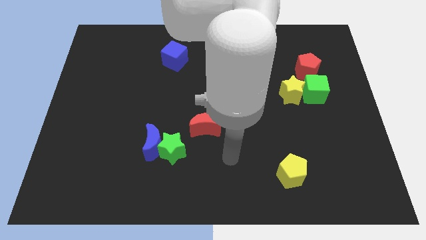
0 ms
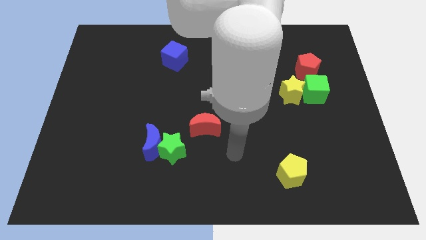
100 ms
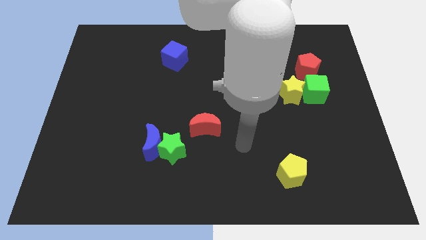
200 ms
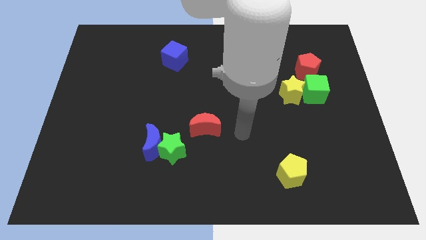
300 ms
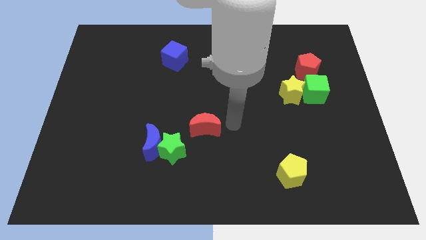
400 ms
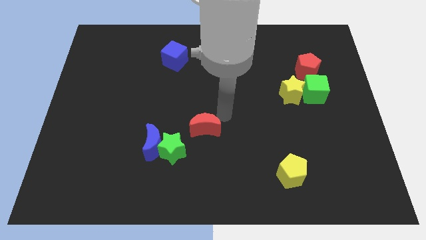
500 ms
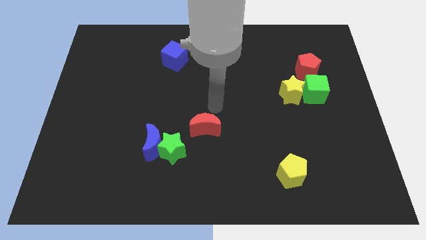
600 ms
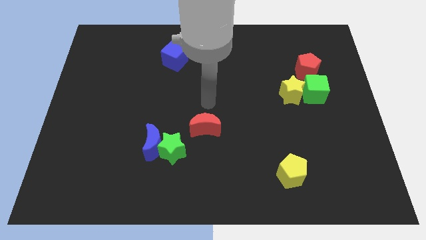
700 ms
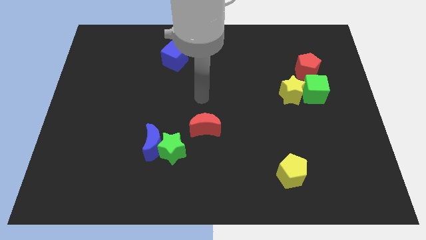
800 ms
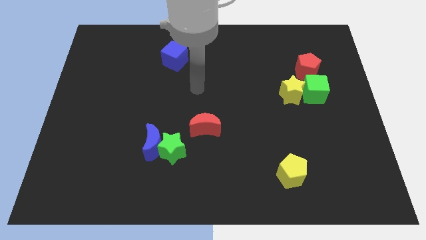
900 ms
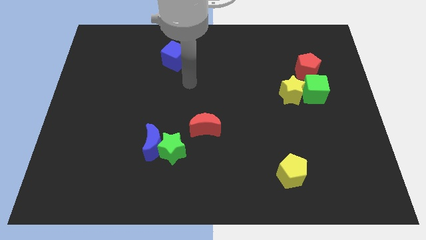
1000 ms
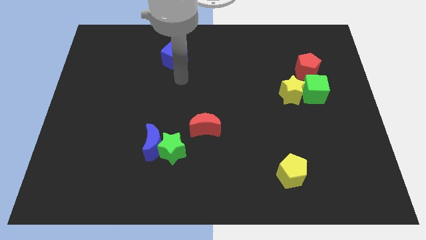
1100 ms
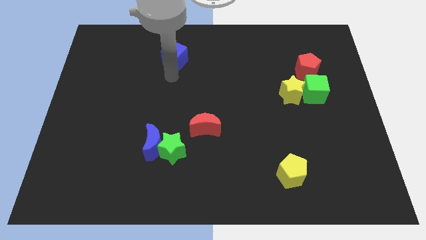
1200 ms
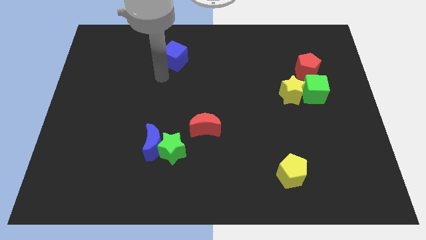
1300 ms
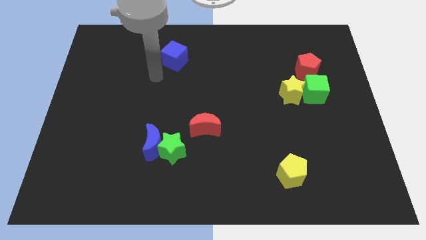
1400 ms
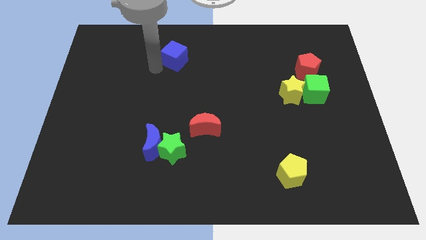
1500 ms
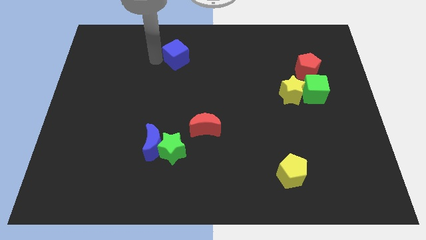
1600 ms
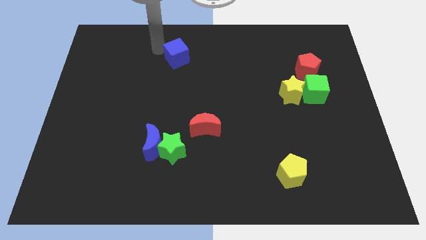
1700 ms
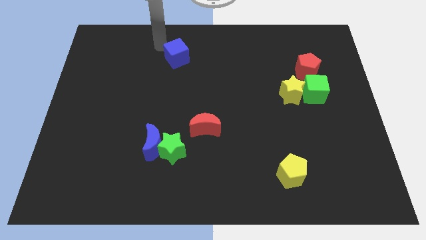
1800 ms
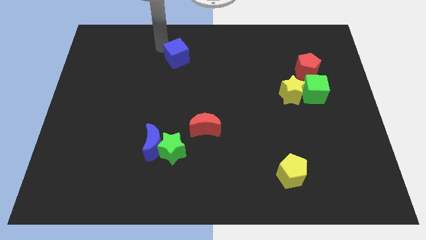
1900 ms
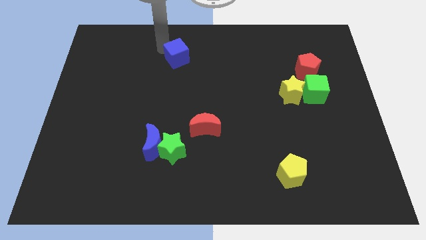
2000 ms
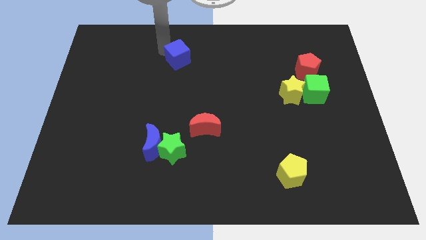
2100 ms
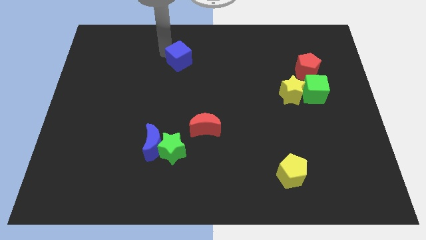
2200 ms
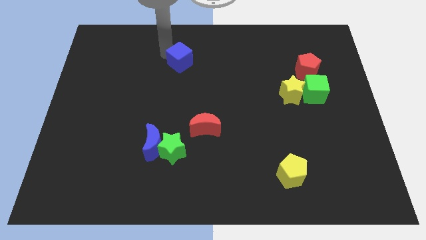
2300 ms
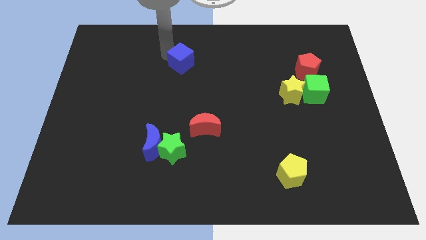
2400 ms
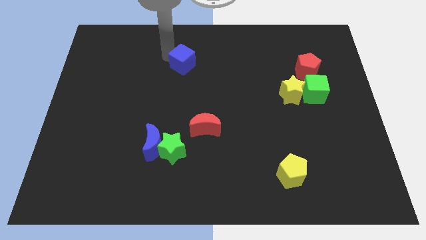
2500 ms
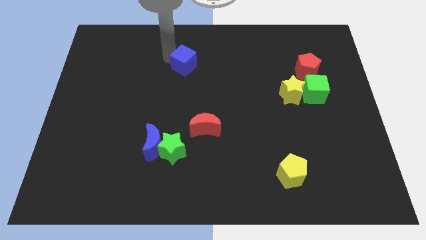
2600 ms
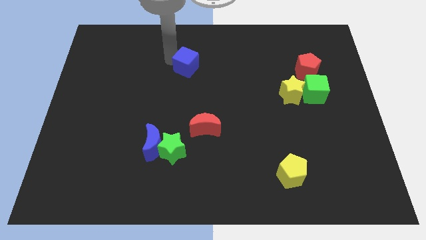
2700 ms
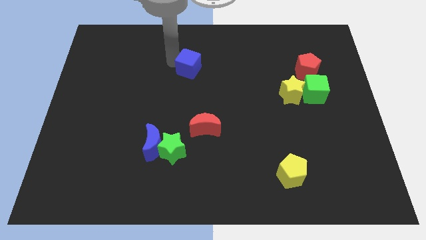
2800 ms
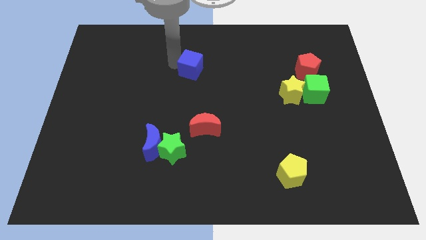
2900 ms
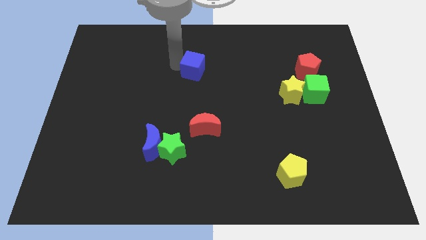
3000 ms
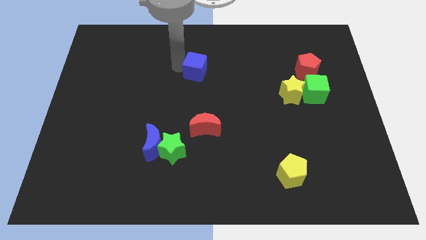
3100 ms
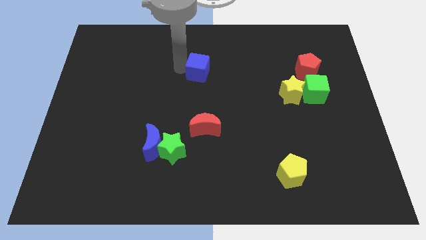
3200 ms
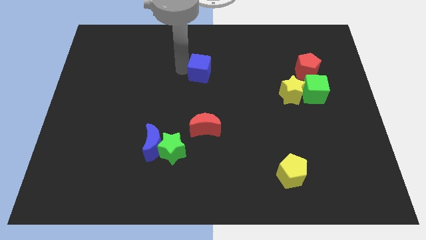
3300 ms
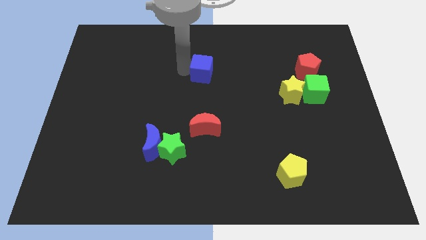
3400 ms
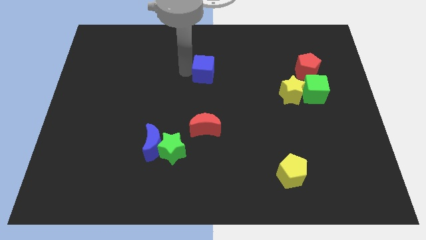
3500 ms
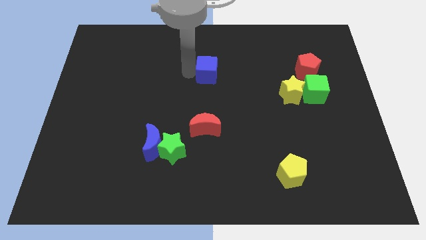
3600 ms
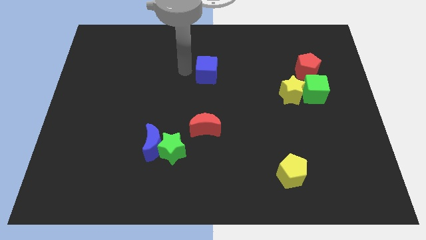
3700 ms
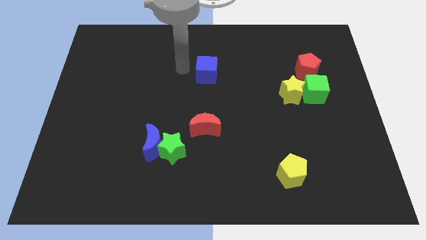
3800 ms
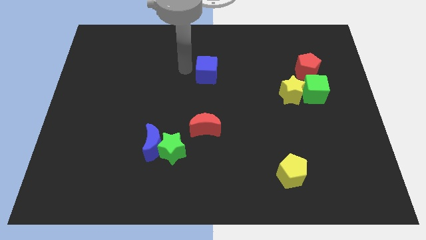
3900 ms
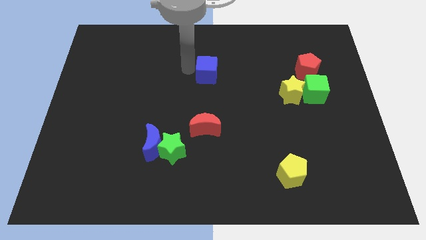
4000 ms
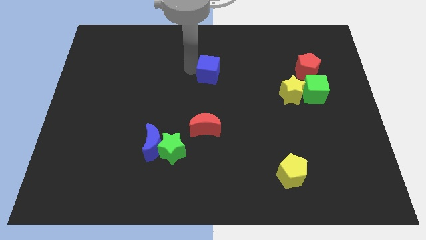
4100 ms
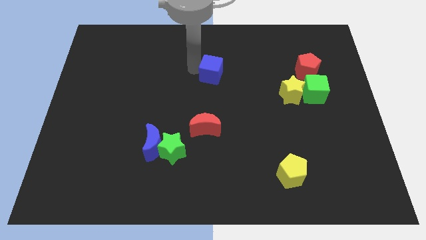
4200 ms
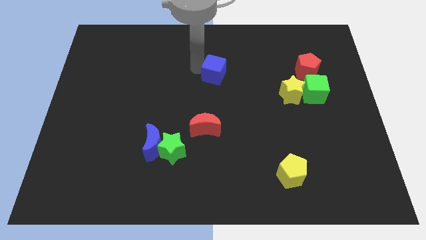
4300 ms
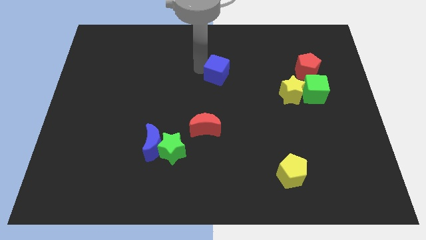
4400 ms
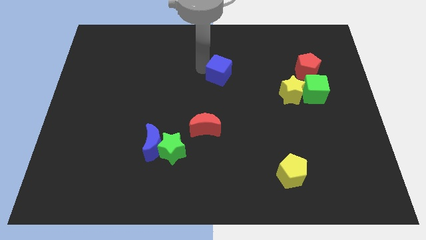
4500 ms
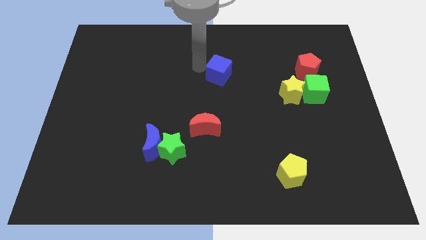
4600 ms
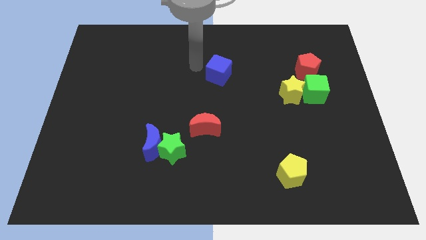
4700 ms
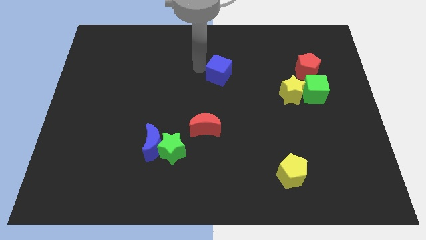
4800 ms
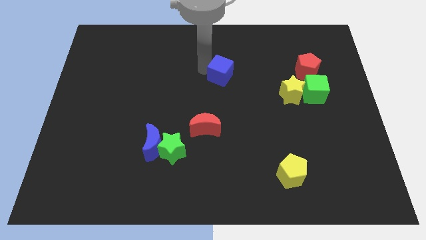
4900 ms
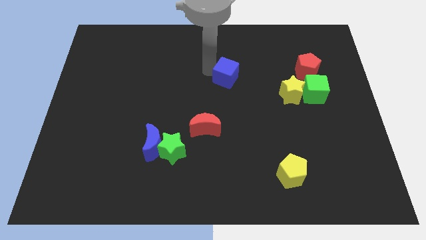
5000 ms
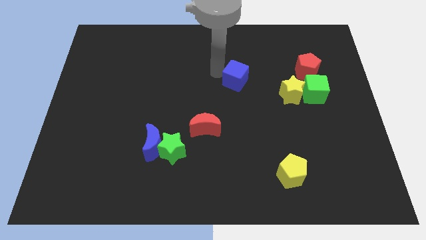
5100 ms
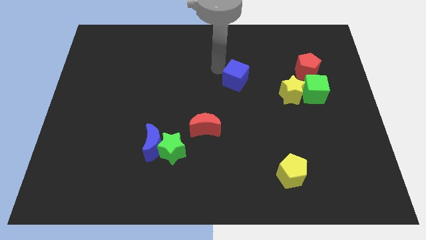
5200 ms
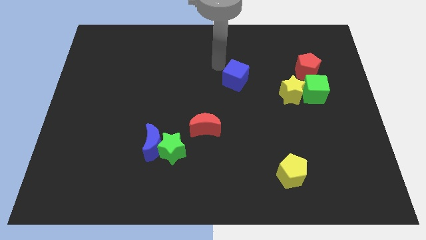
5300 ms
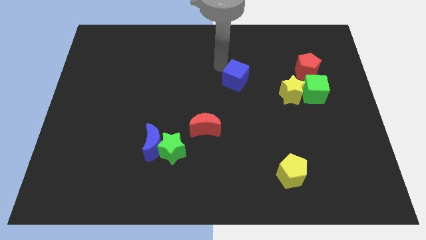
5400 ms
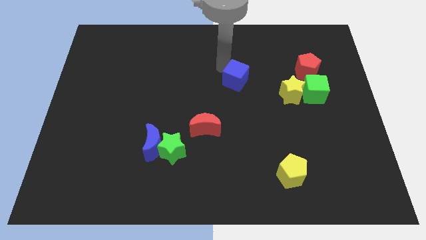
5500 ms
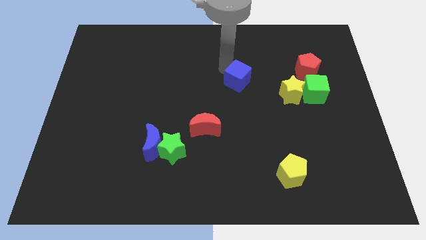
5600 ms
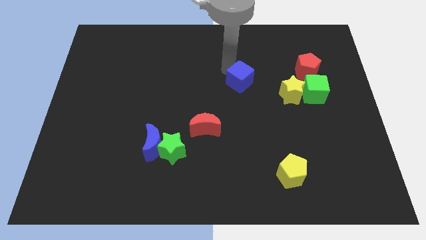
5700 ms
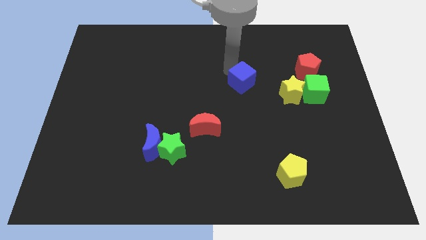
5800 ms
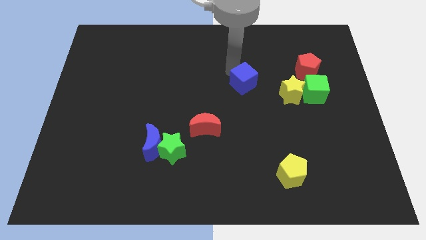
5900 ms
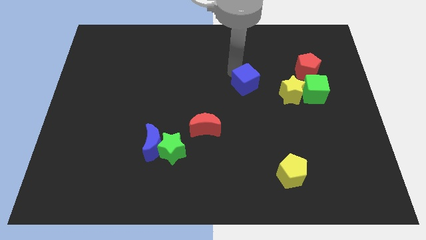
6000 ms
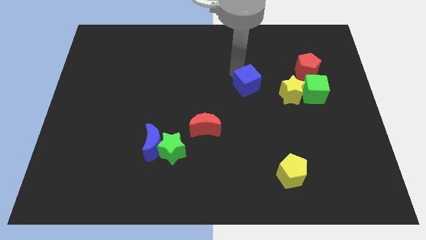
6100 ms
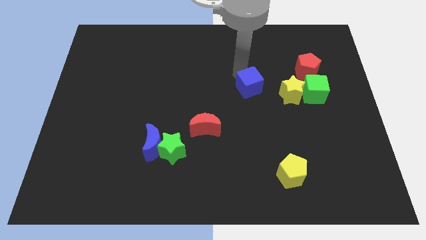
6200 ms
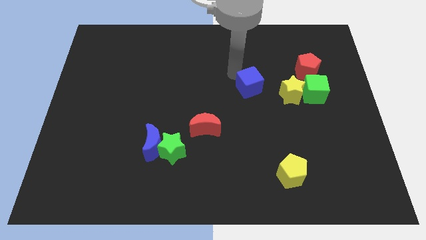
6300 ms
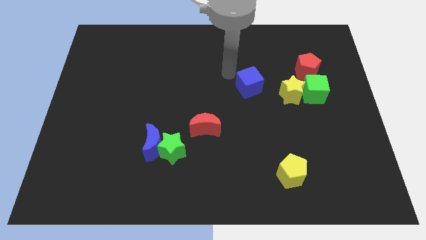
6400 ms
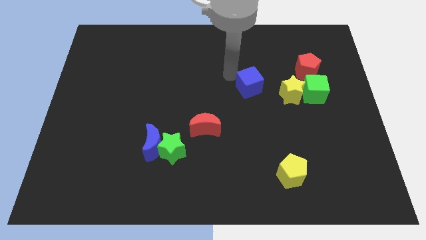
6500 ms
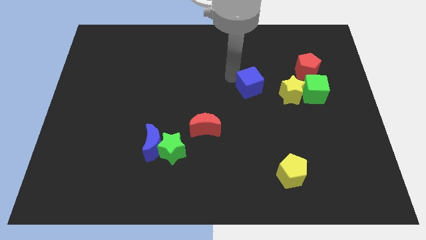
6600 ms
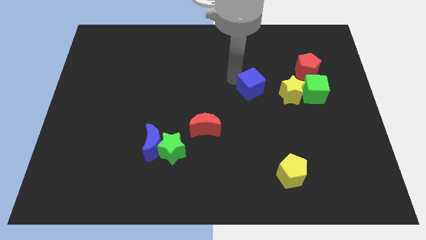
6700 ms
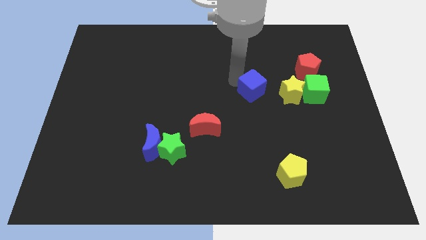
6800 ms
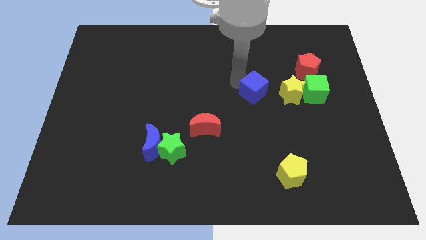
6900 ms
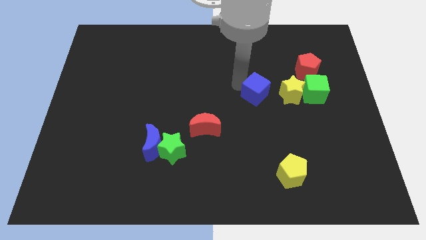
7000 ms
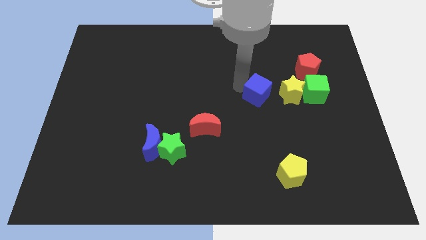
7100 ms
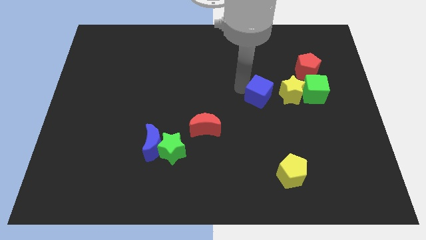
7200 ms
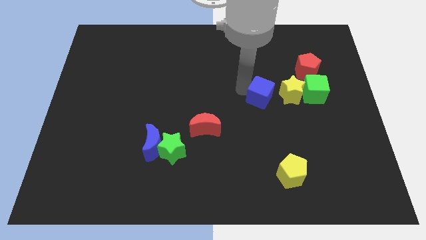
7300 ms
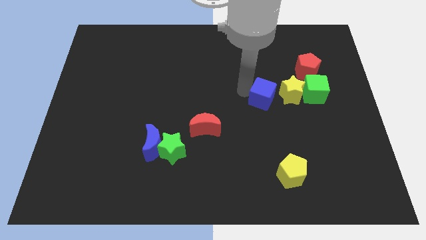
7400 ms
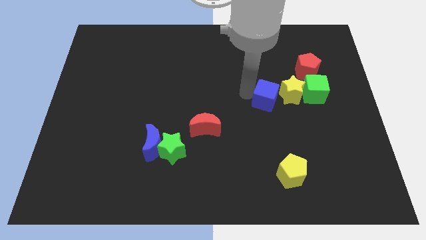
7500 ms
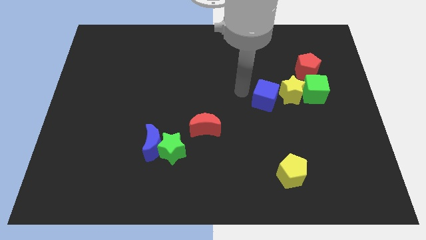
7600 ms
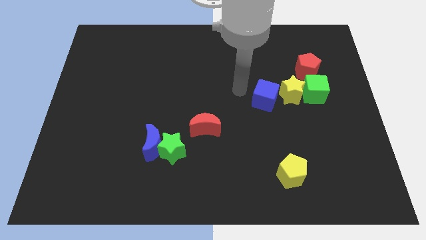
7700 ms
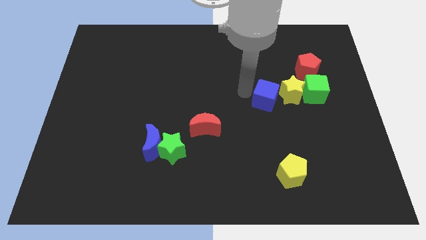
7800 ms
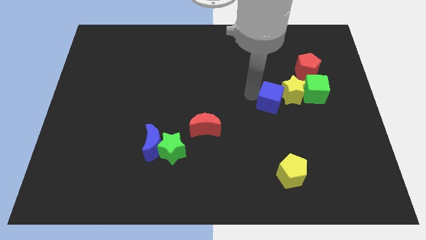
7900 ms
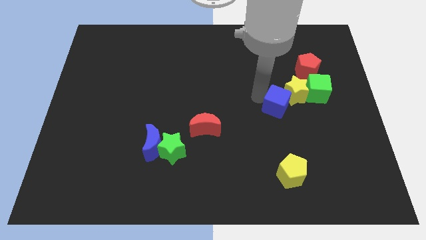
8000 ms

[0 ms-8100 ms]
push the blue cube to the bottom left side of the green cube
